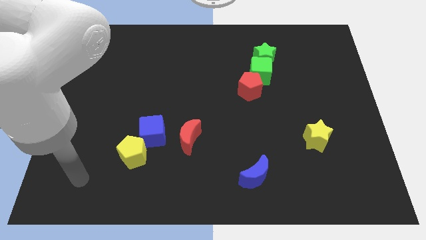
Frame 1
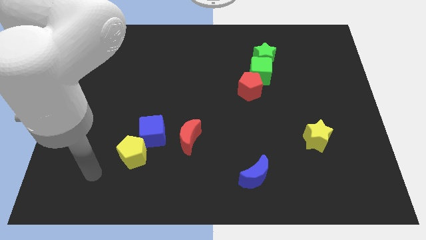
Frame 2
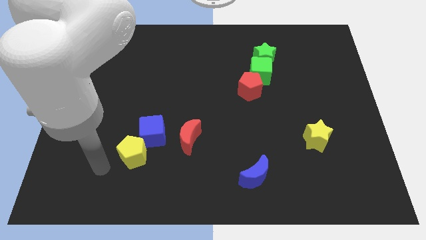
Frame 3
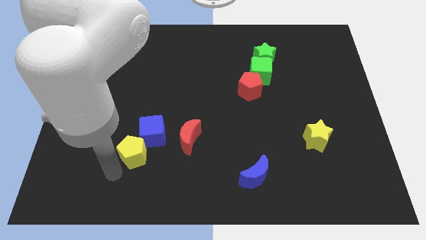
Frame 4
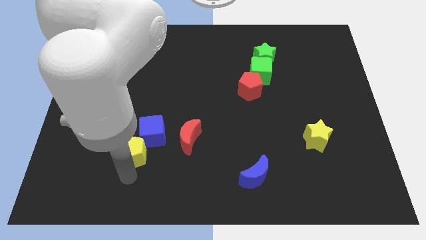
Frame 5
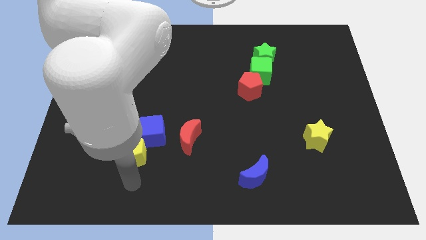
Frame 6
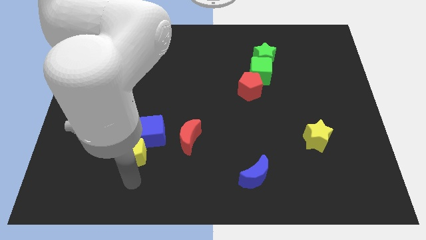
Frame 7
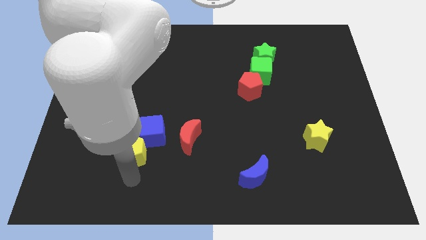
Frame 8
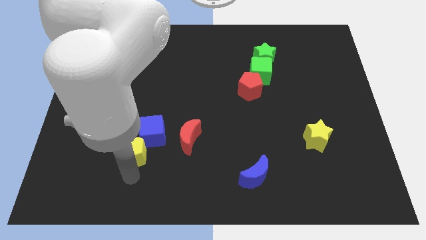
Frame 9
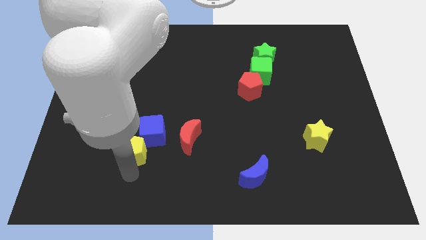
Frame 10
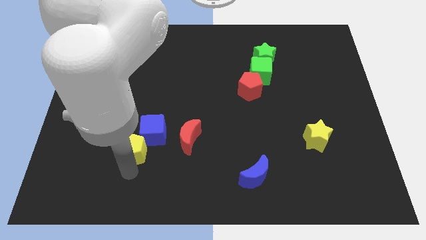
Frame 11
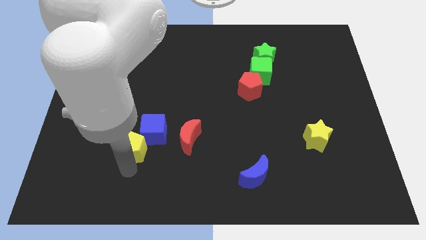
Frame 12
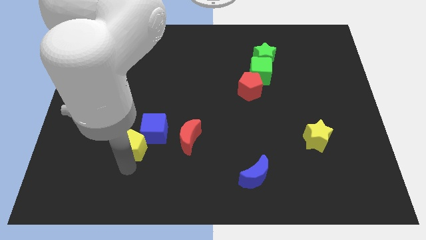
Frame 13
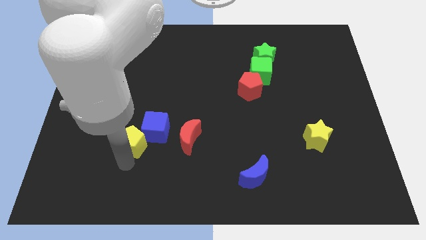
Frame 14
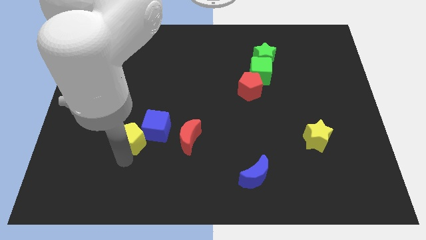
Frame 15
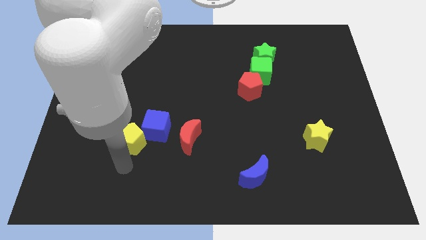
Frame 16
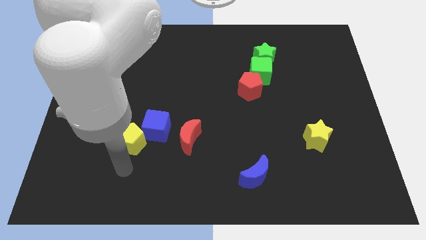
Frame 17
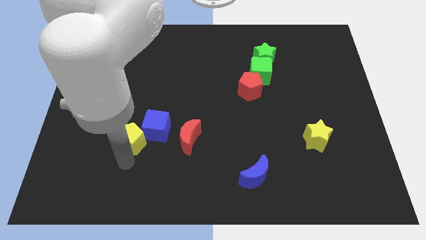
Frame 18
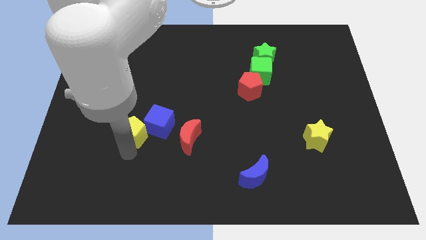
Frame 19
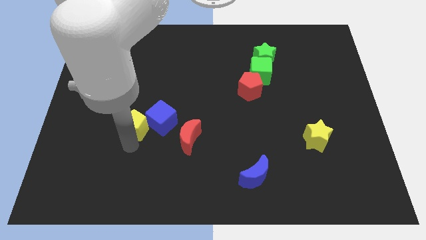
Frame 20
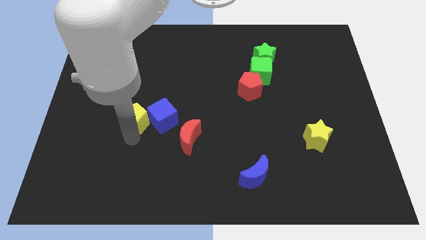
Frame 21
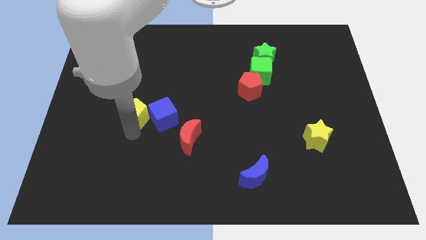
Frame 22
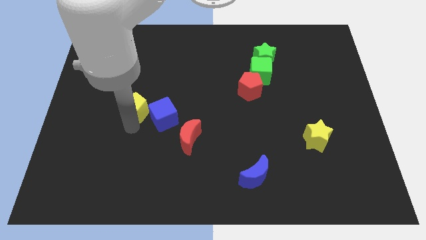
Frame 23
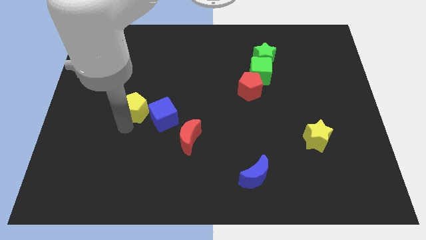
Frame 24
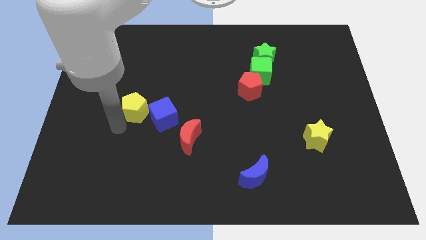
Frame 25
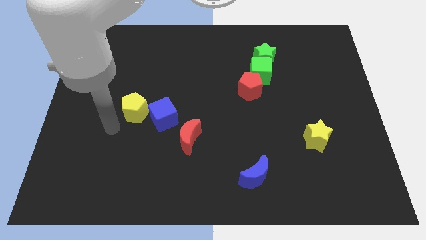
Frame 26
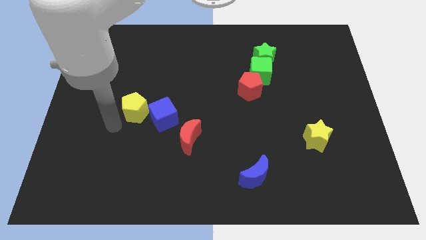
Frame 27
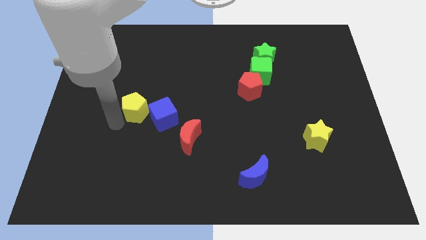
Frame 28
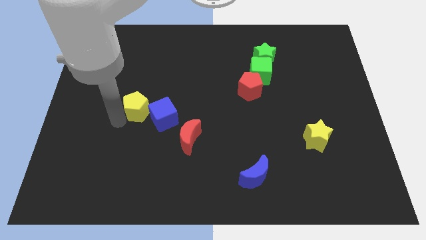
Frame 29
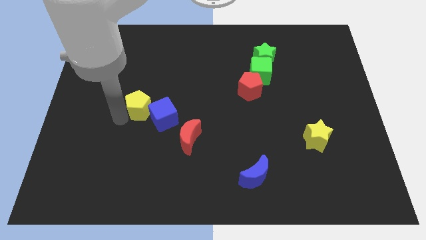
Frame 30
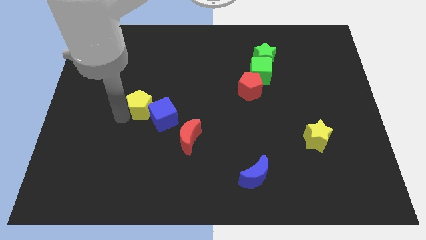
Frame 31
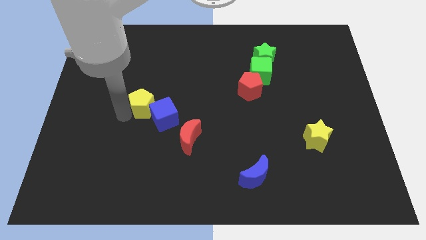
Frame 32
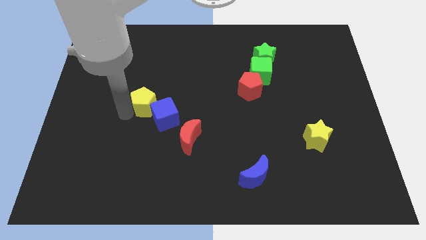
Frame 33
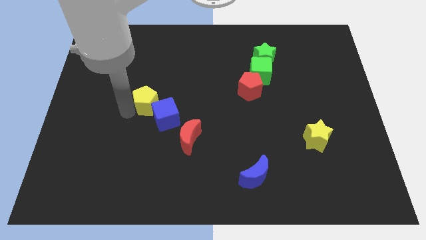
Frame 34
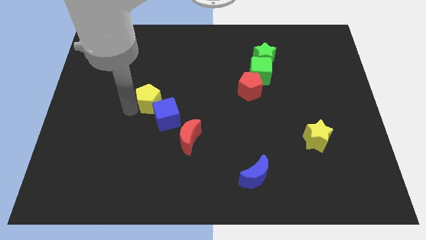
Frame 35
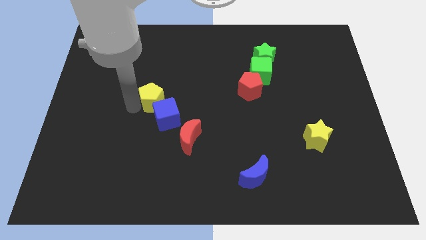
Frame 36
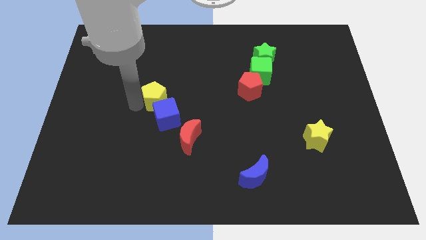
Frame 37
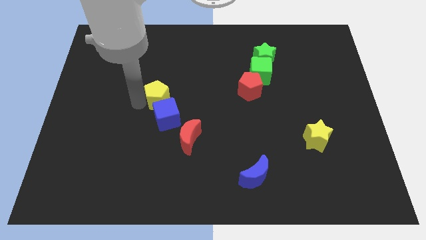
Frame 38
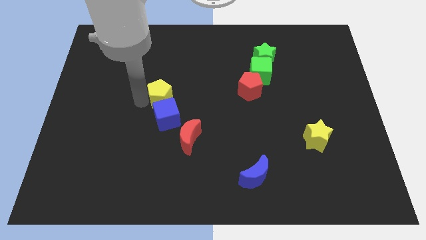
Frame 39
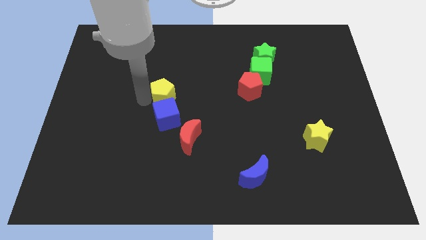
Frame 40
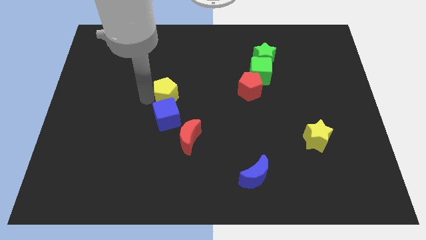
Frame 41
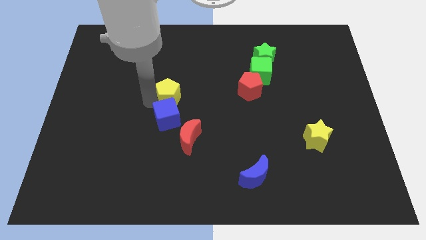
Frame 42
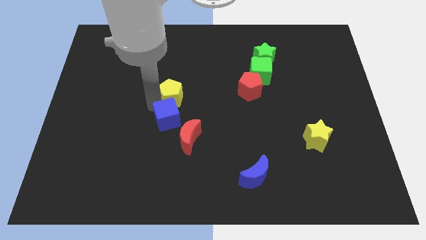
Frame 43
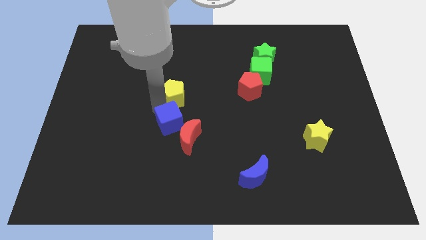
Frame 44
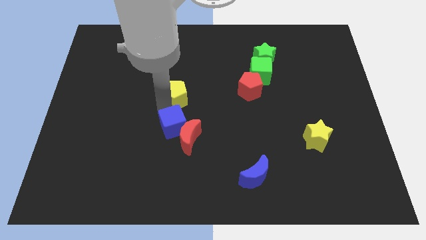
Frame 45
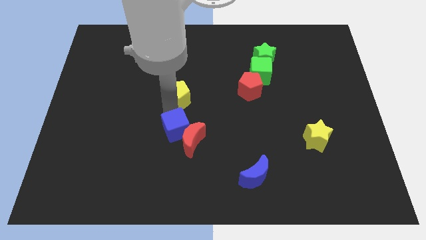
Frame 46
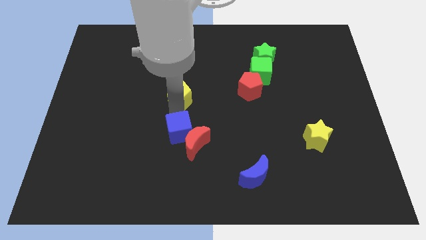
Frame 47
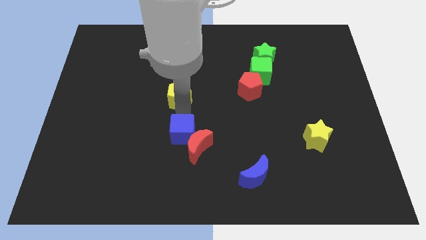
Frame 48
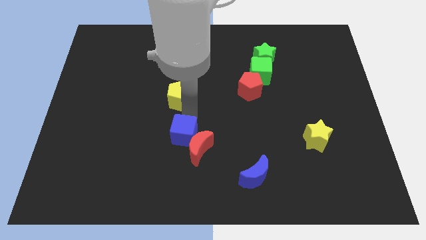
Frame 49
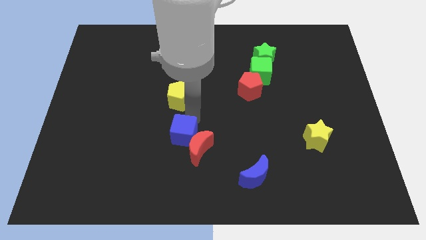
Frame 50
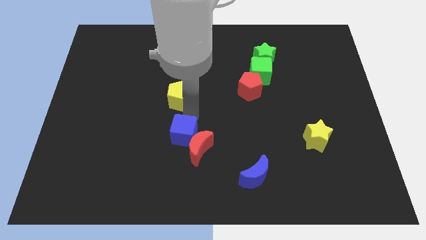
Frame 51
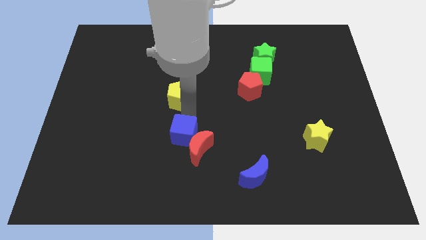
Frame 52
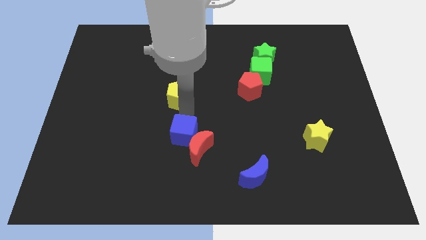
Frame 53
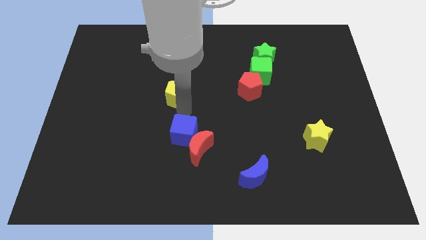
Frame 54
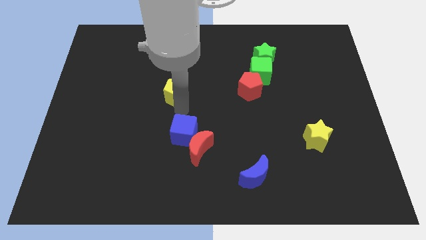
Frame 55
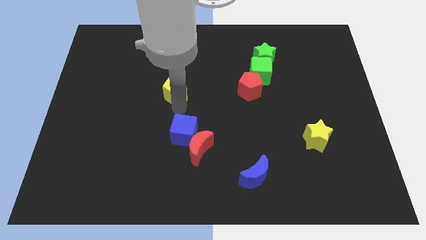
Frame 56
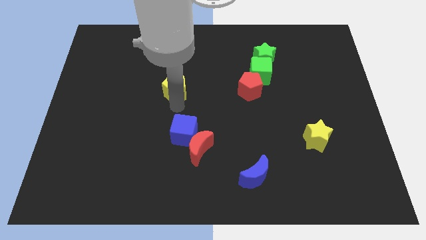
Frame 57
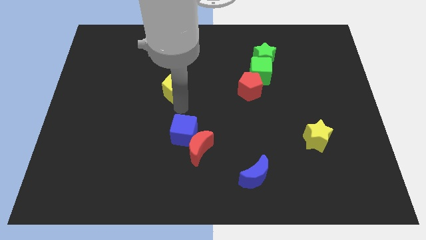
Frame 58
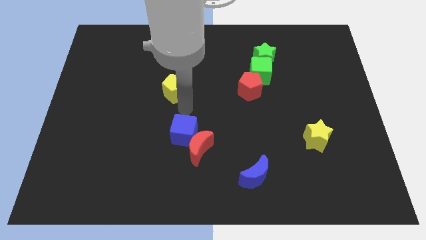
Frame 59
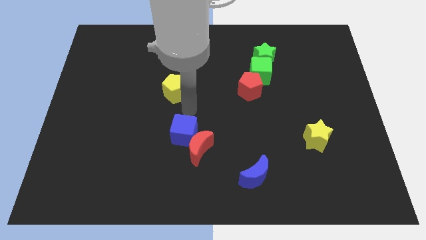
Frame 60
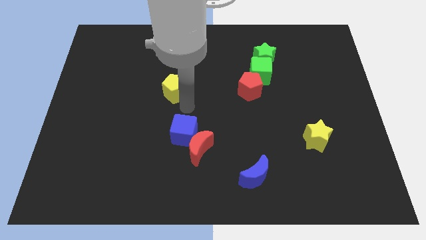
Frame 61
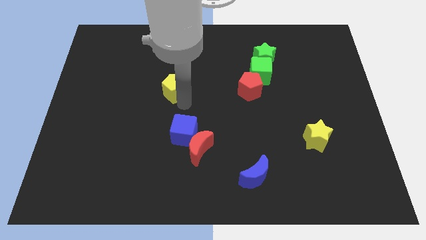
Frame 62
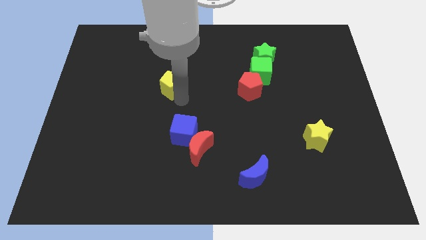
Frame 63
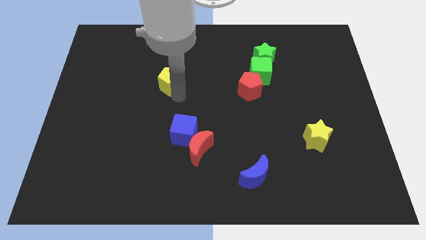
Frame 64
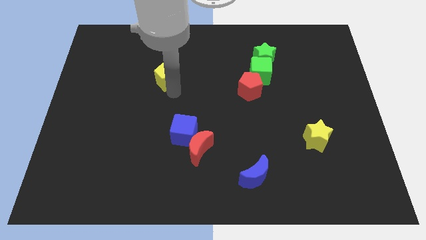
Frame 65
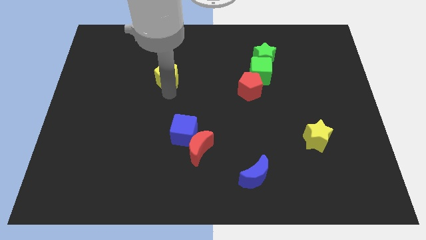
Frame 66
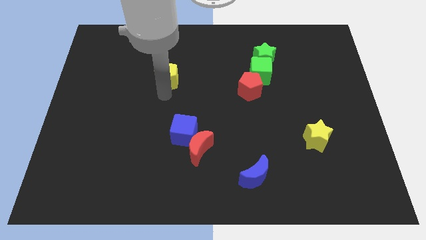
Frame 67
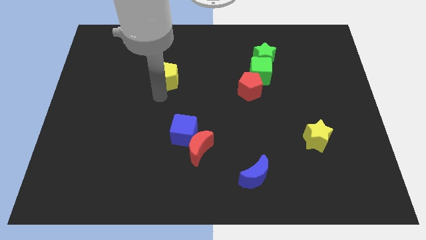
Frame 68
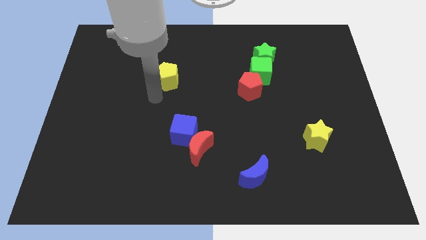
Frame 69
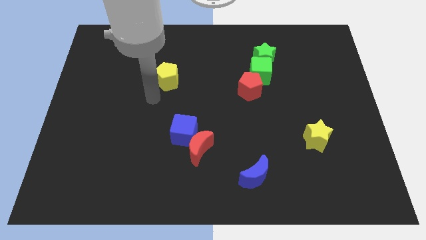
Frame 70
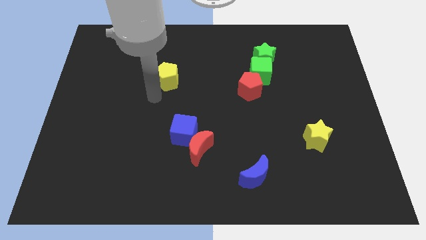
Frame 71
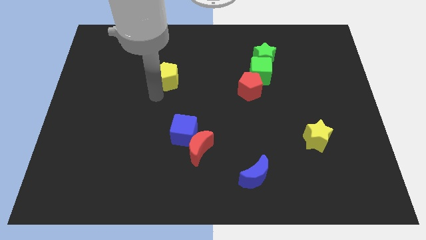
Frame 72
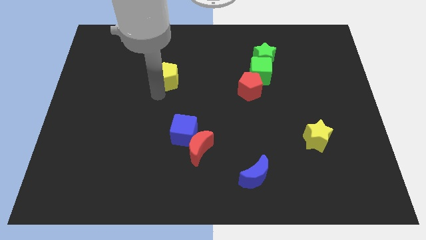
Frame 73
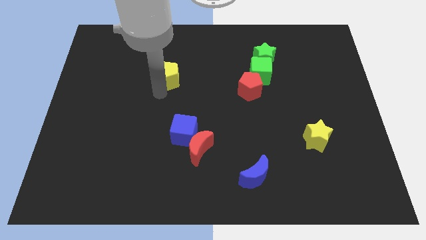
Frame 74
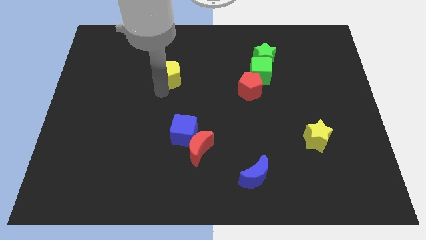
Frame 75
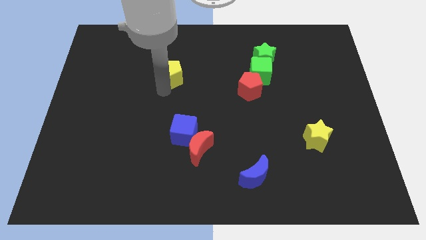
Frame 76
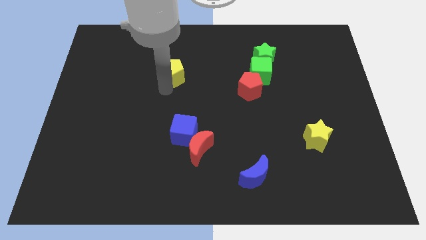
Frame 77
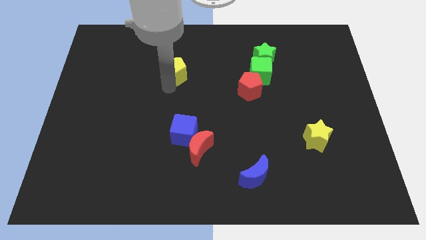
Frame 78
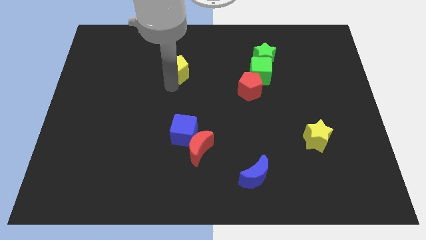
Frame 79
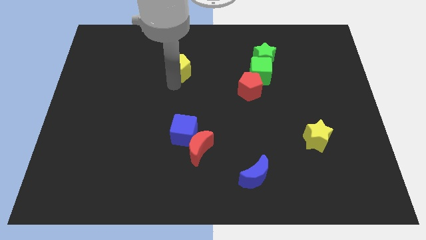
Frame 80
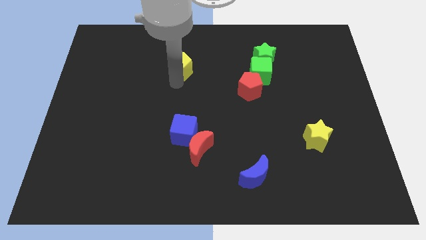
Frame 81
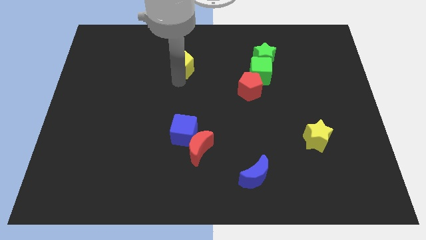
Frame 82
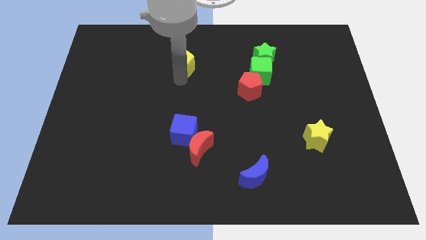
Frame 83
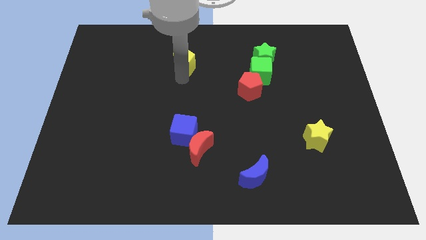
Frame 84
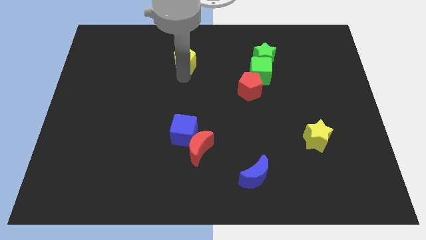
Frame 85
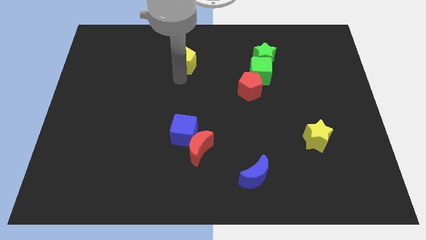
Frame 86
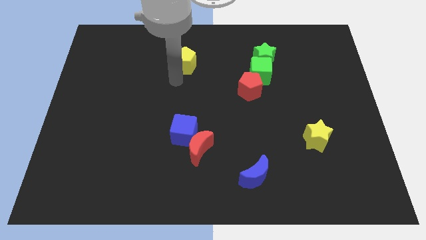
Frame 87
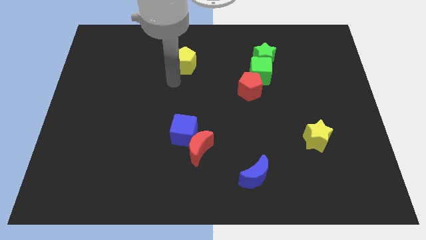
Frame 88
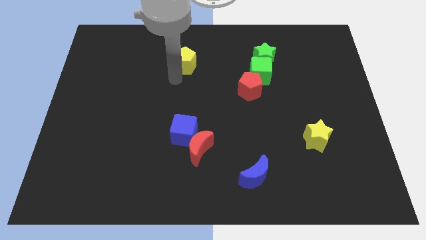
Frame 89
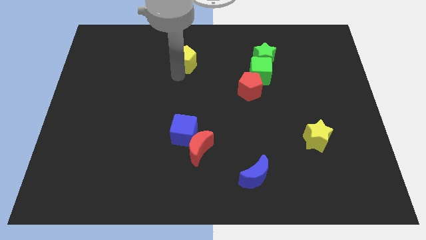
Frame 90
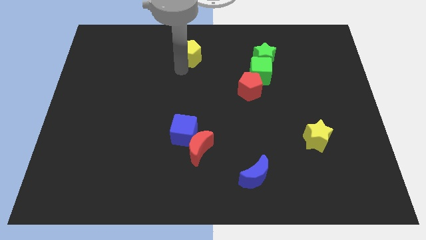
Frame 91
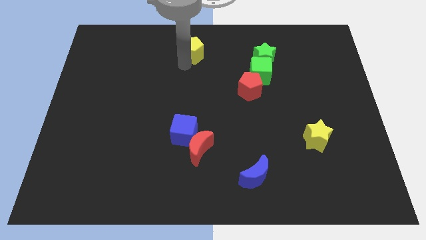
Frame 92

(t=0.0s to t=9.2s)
push the yellow pentagon to the top
